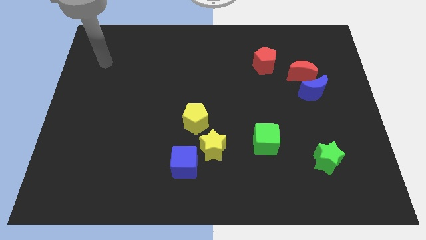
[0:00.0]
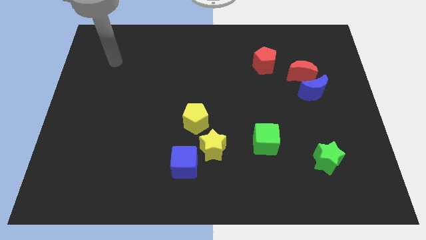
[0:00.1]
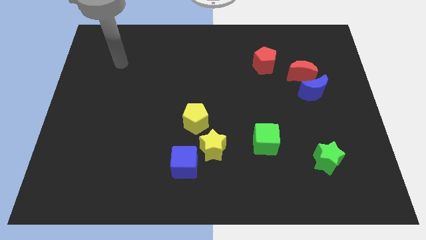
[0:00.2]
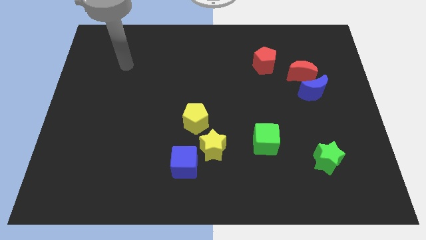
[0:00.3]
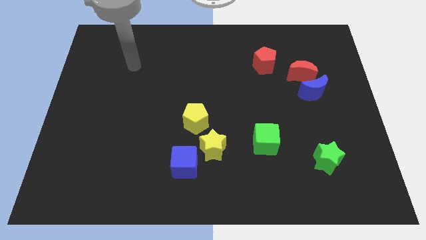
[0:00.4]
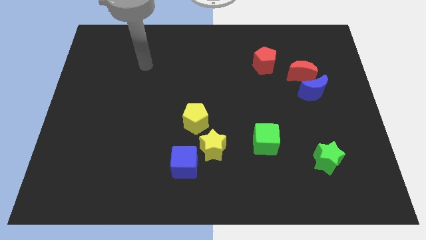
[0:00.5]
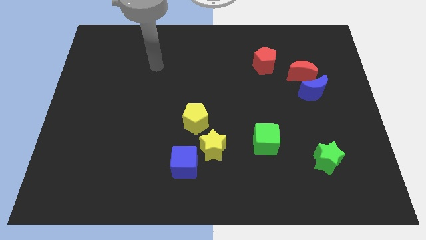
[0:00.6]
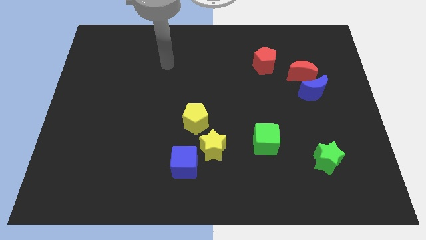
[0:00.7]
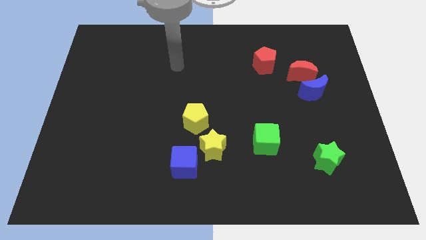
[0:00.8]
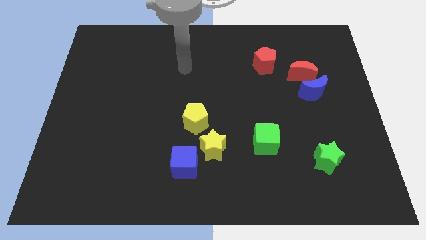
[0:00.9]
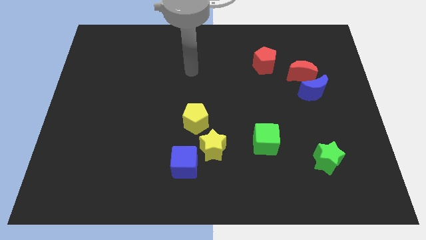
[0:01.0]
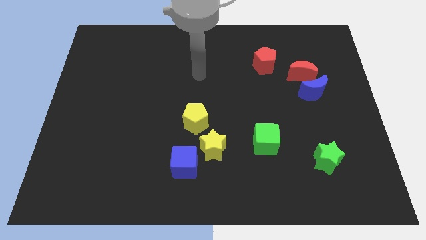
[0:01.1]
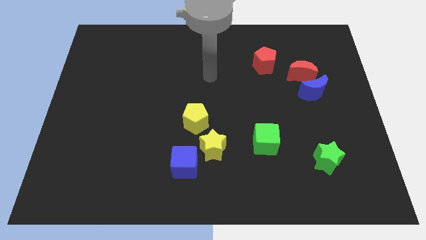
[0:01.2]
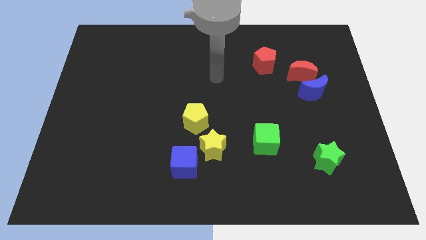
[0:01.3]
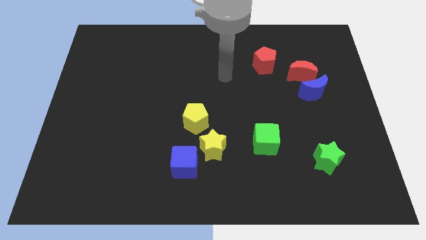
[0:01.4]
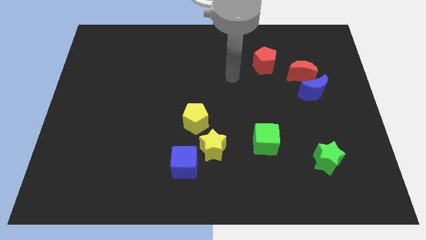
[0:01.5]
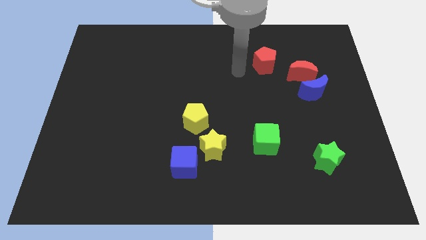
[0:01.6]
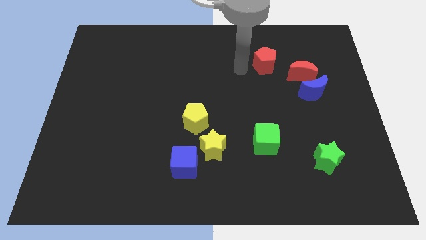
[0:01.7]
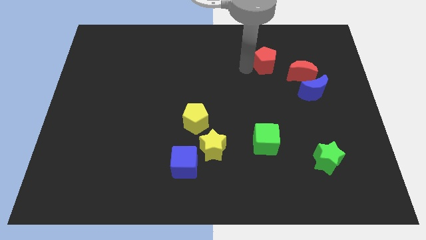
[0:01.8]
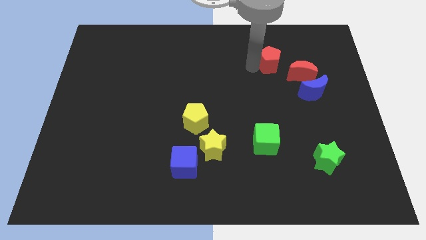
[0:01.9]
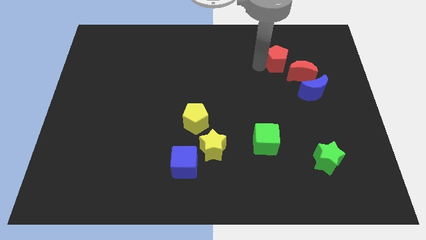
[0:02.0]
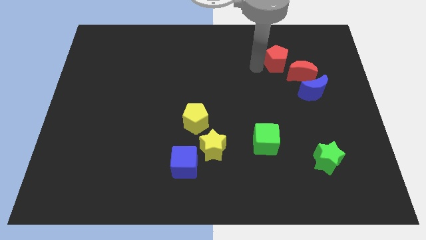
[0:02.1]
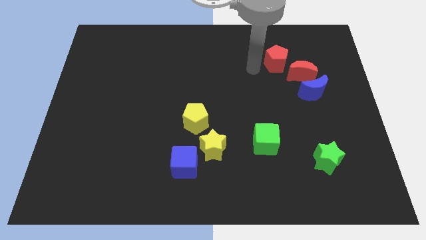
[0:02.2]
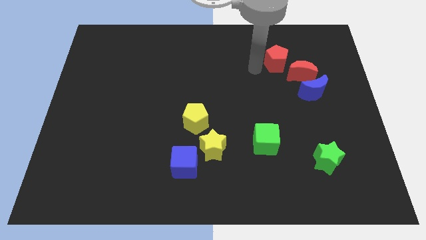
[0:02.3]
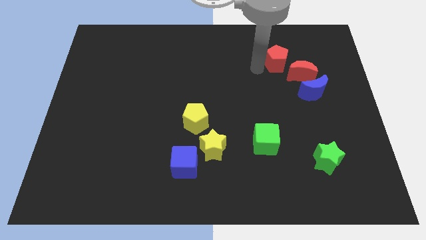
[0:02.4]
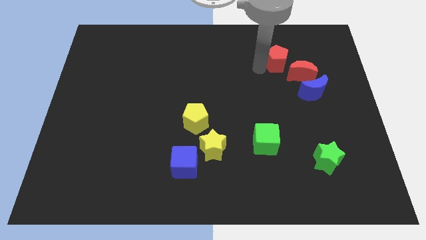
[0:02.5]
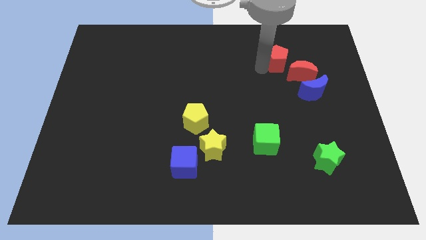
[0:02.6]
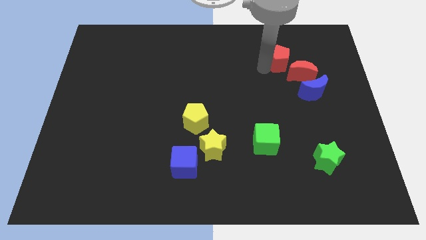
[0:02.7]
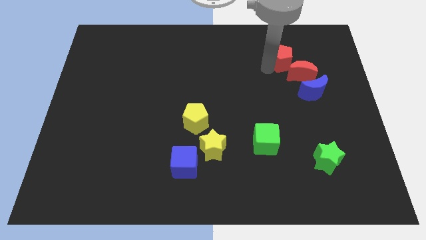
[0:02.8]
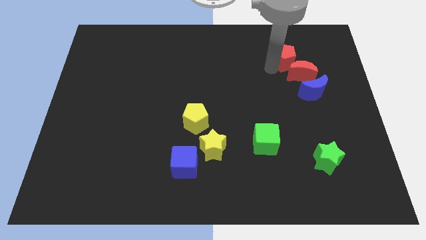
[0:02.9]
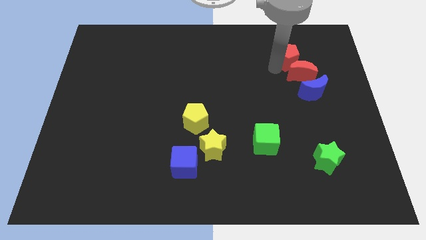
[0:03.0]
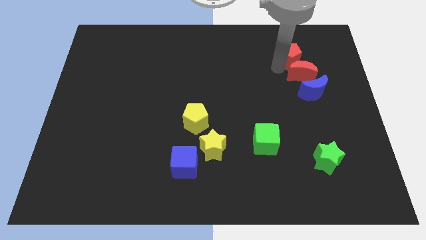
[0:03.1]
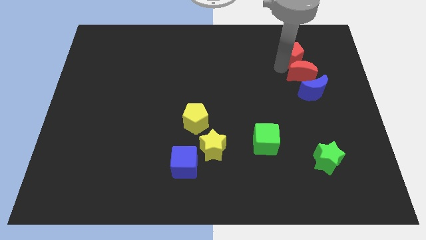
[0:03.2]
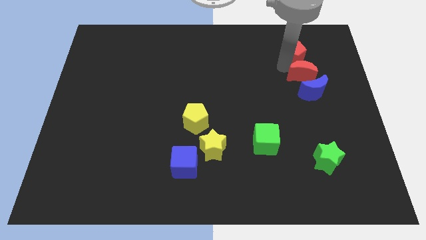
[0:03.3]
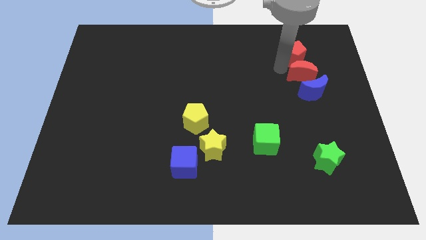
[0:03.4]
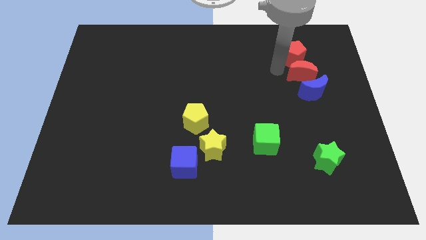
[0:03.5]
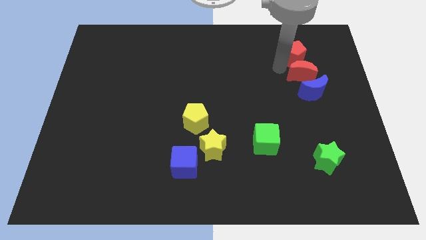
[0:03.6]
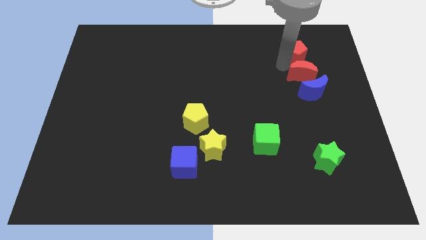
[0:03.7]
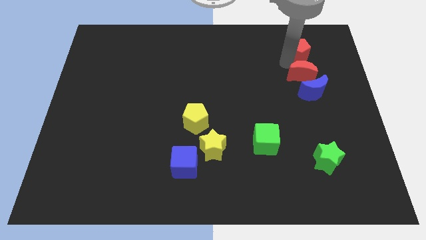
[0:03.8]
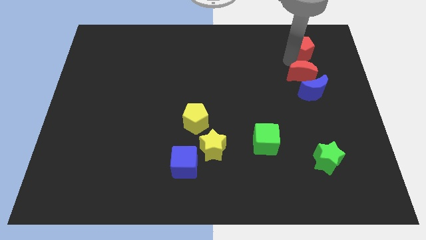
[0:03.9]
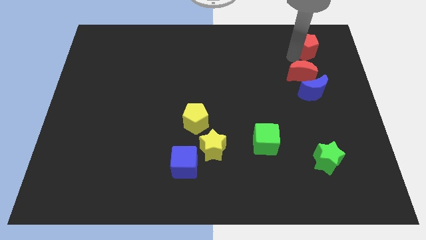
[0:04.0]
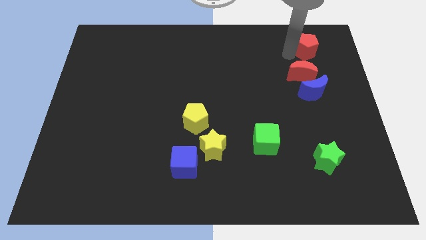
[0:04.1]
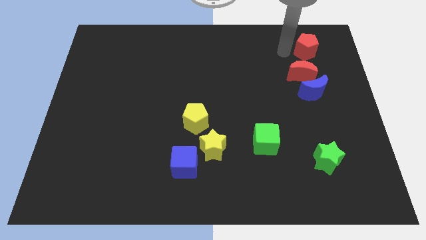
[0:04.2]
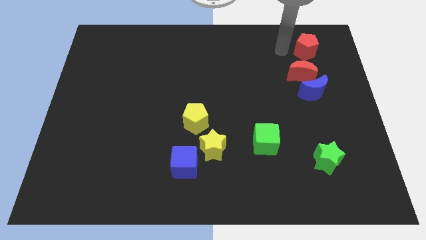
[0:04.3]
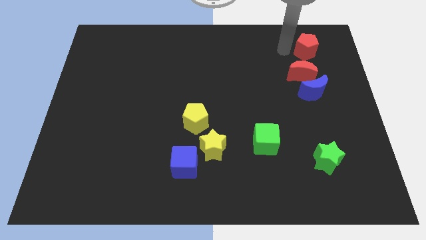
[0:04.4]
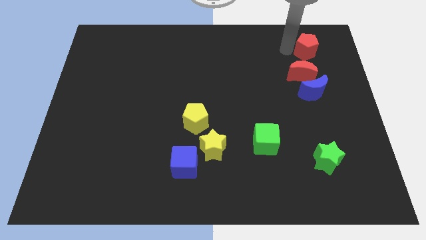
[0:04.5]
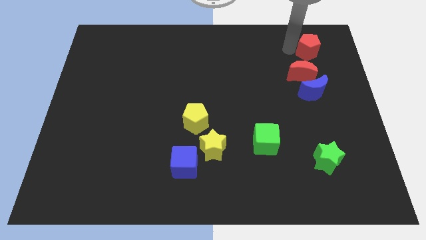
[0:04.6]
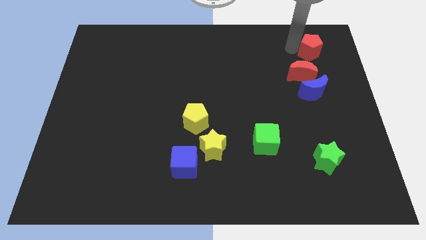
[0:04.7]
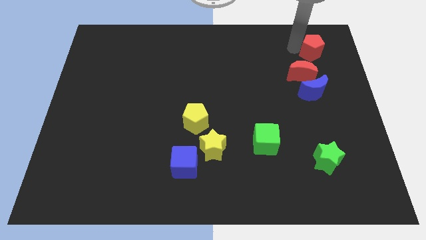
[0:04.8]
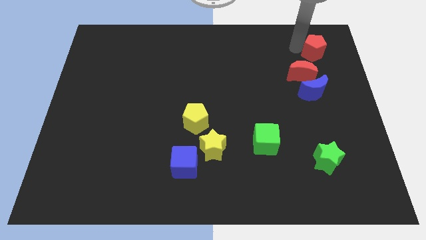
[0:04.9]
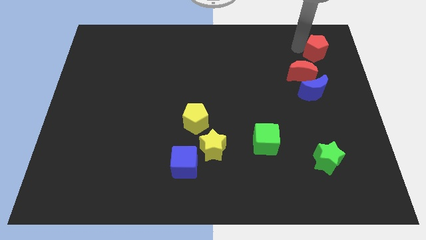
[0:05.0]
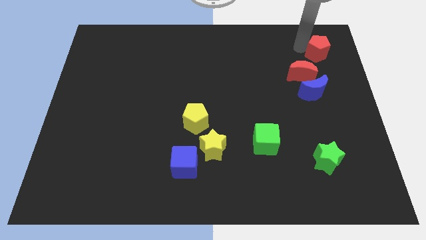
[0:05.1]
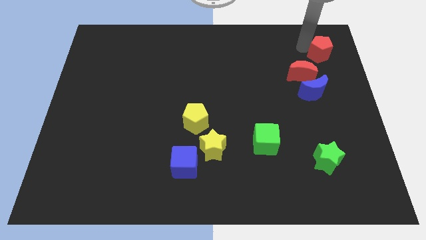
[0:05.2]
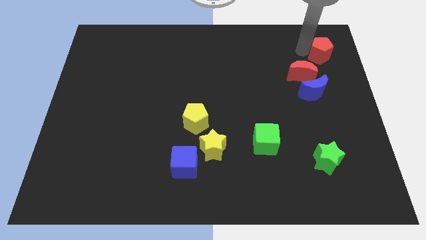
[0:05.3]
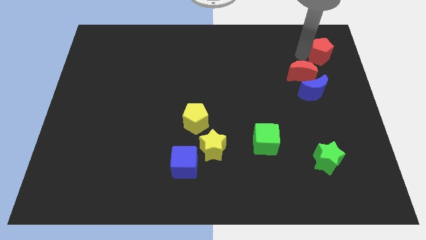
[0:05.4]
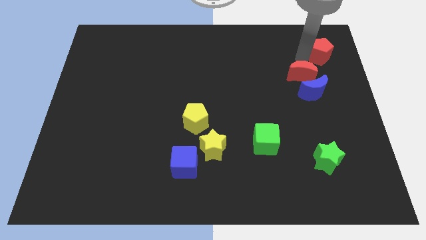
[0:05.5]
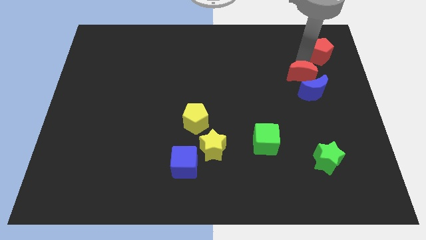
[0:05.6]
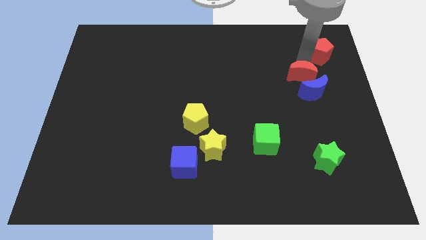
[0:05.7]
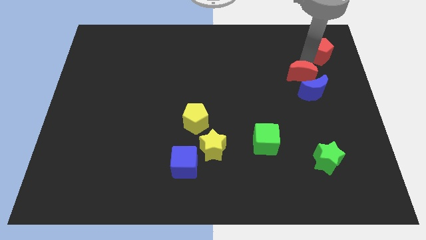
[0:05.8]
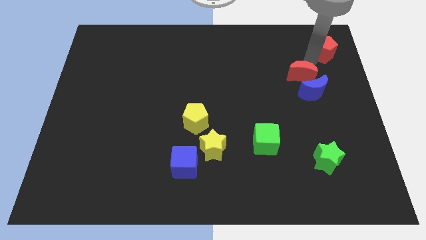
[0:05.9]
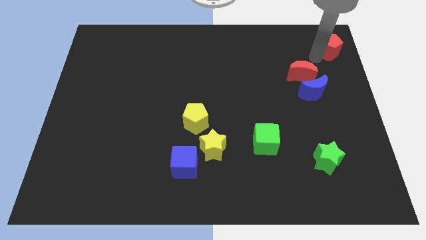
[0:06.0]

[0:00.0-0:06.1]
slide the red pentagon to the top right corner
